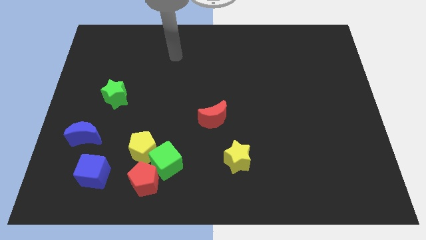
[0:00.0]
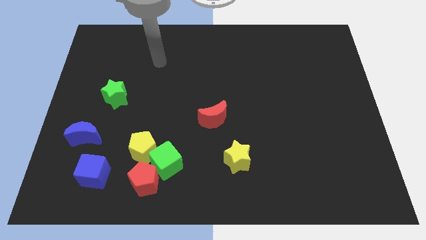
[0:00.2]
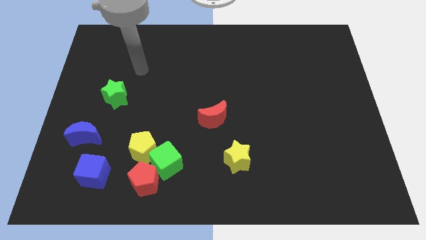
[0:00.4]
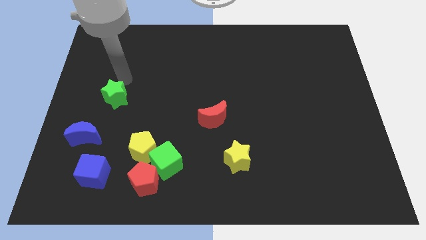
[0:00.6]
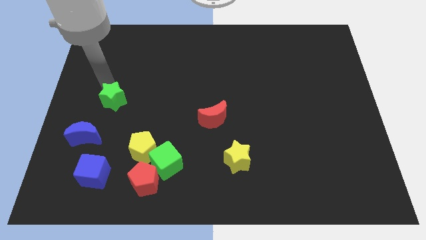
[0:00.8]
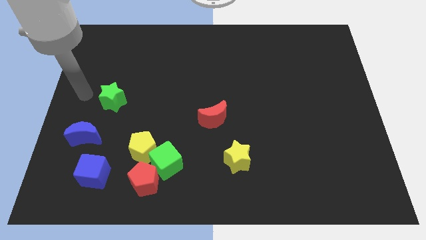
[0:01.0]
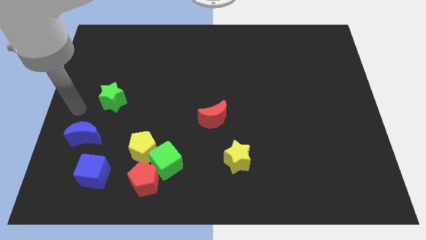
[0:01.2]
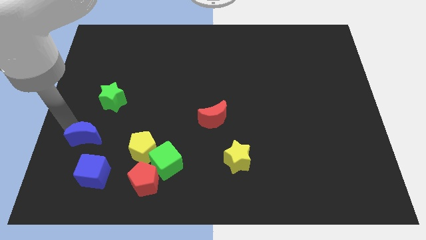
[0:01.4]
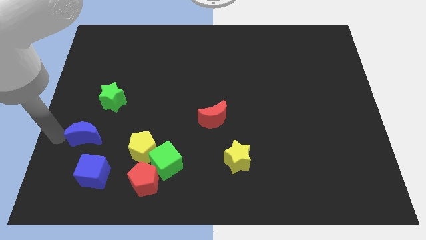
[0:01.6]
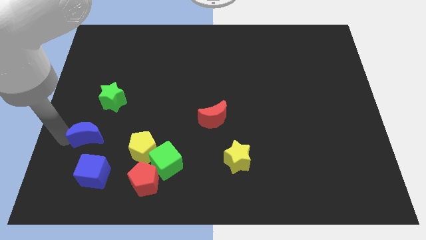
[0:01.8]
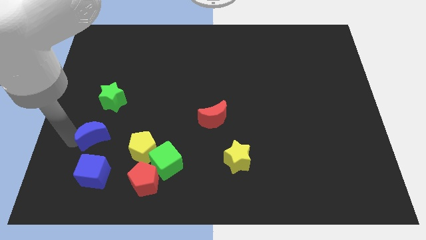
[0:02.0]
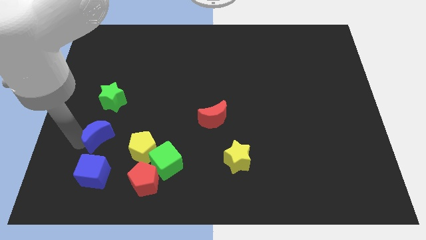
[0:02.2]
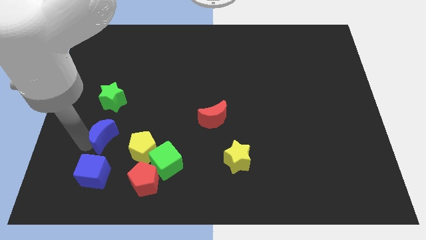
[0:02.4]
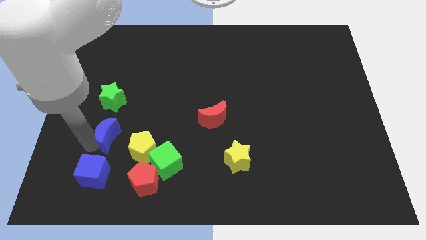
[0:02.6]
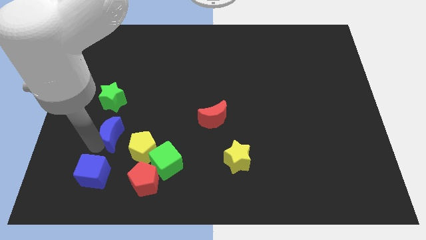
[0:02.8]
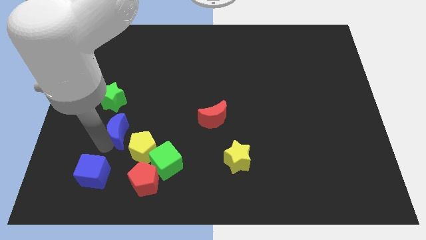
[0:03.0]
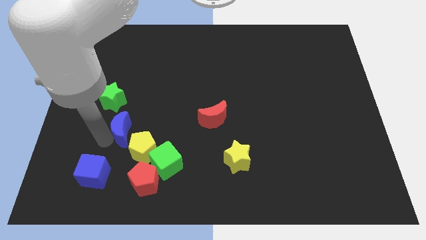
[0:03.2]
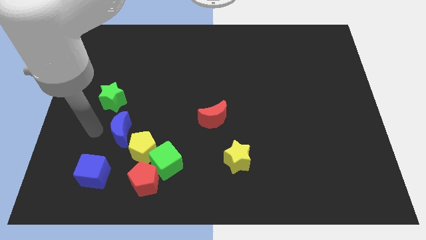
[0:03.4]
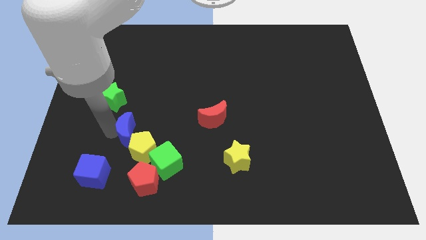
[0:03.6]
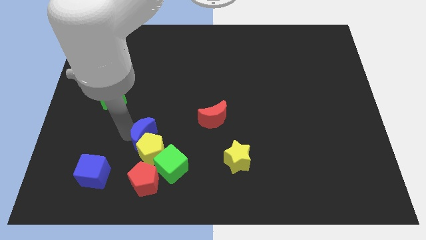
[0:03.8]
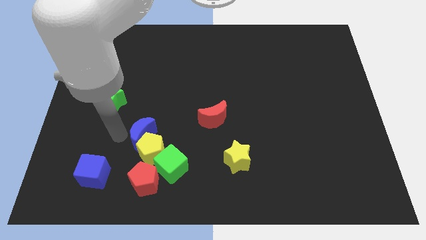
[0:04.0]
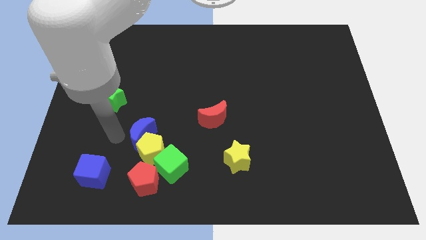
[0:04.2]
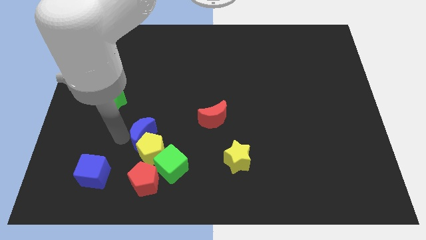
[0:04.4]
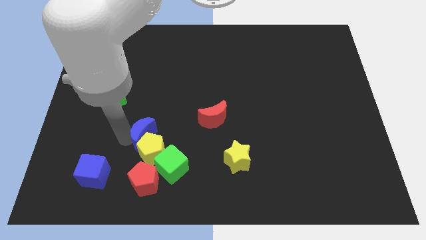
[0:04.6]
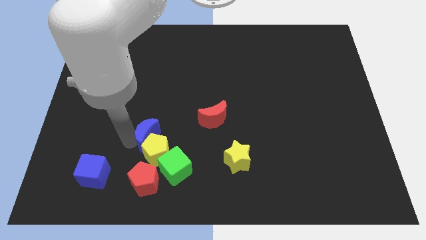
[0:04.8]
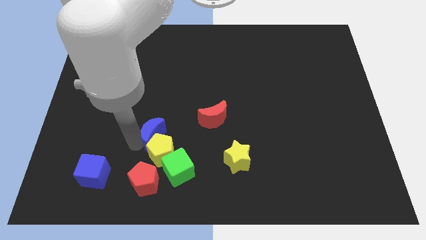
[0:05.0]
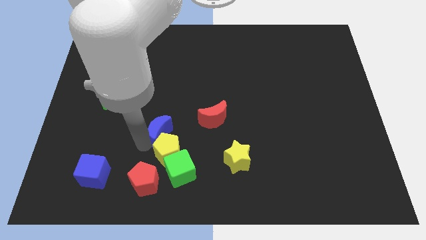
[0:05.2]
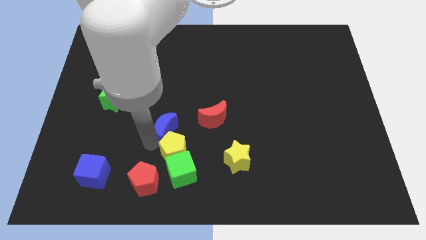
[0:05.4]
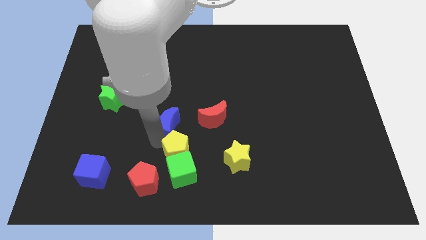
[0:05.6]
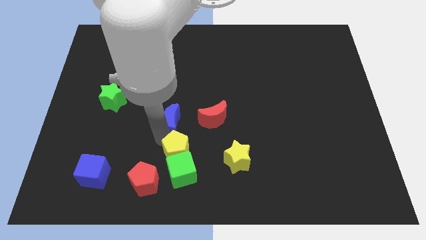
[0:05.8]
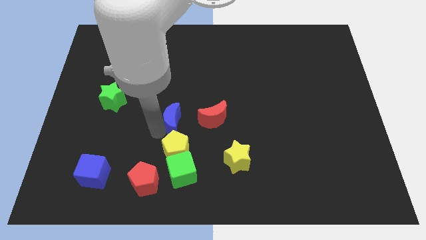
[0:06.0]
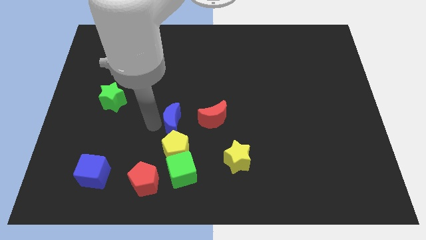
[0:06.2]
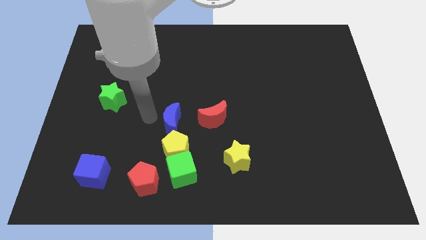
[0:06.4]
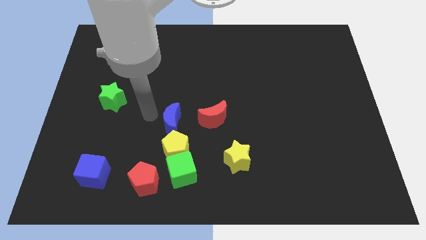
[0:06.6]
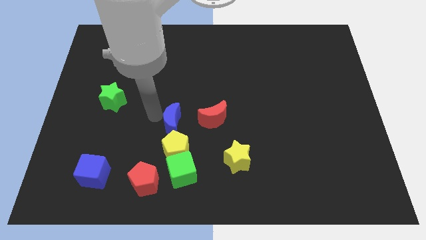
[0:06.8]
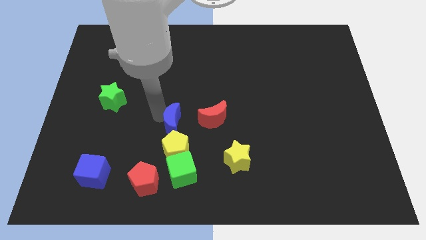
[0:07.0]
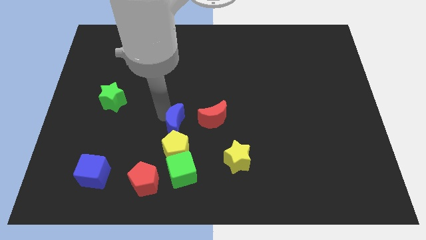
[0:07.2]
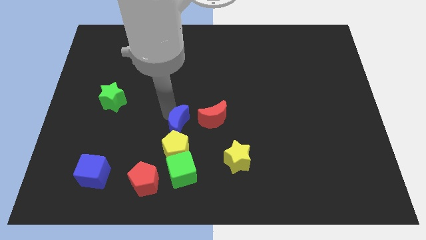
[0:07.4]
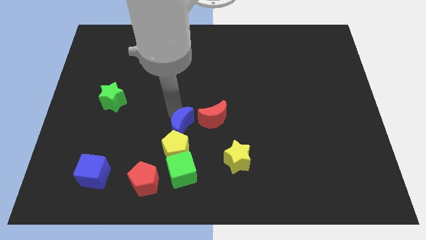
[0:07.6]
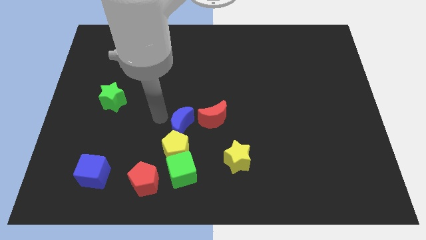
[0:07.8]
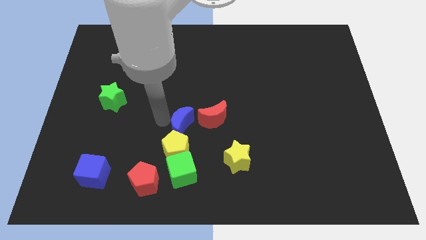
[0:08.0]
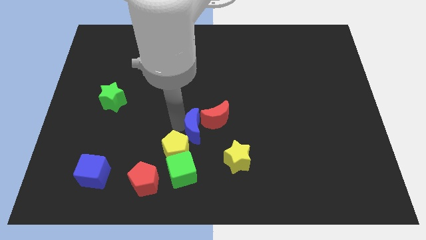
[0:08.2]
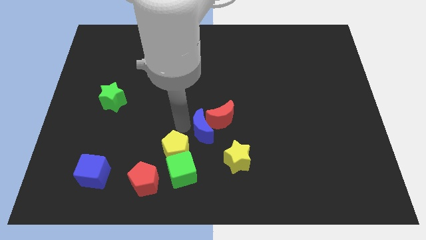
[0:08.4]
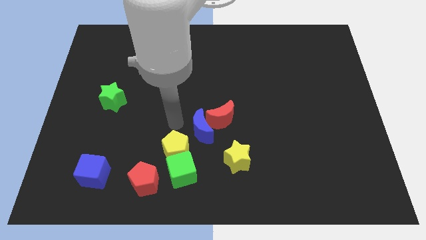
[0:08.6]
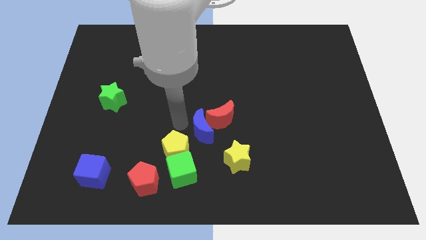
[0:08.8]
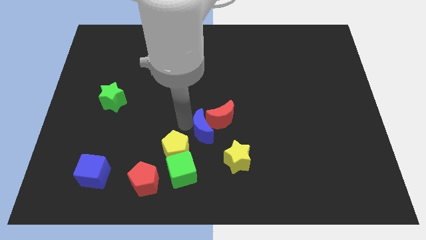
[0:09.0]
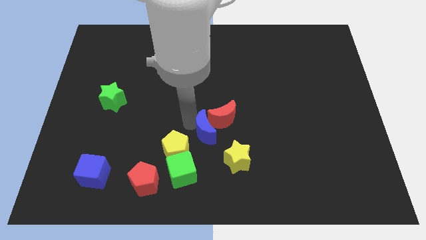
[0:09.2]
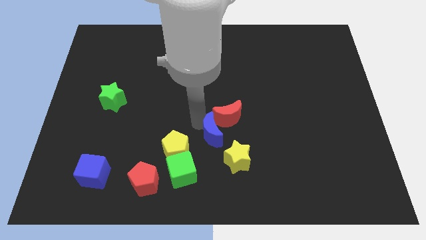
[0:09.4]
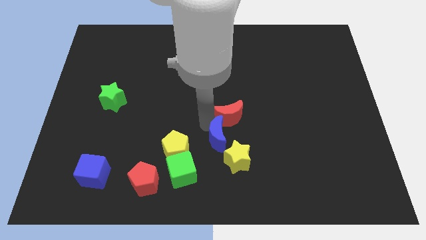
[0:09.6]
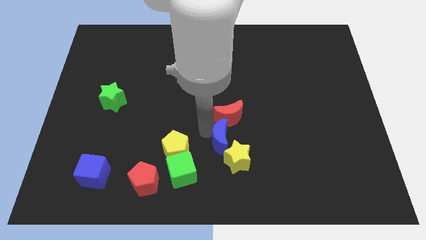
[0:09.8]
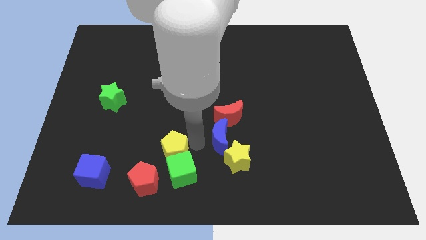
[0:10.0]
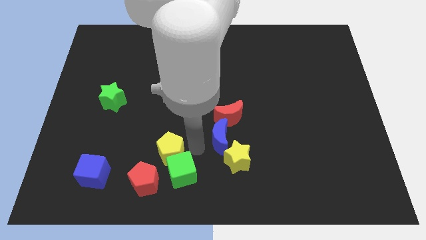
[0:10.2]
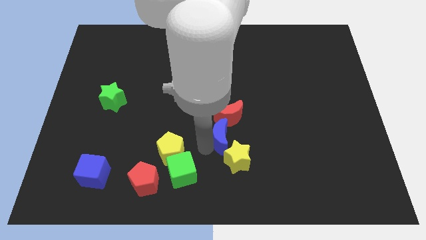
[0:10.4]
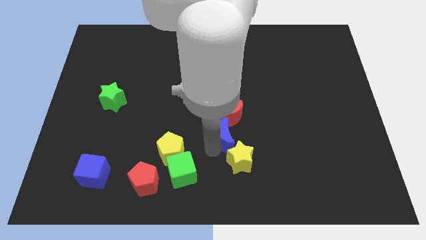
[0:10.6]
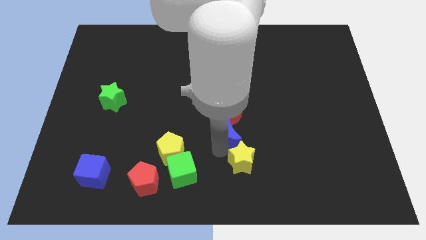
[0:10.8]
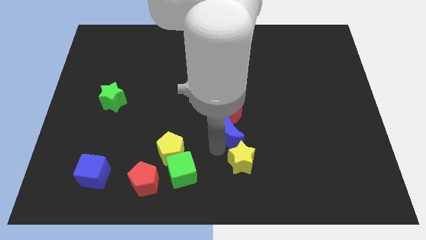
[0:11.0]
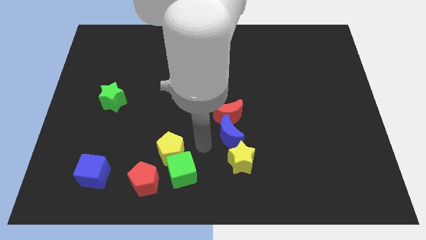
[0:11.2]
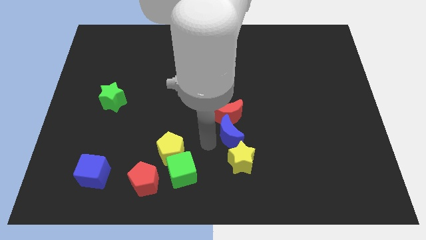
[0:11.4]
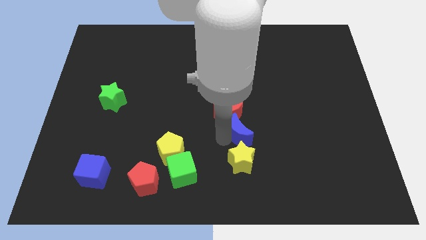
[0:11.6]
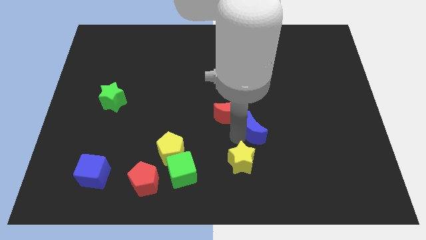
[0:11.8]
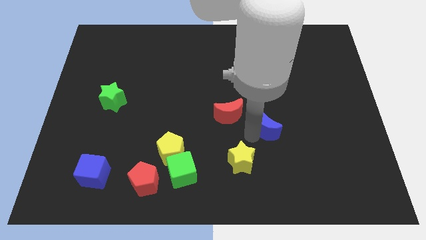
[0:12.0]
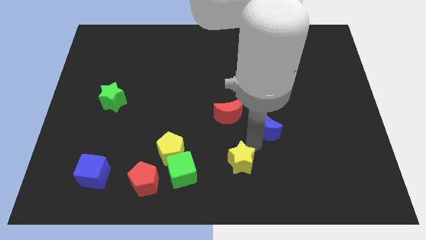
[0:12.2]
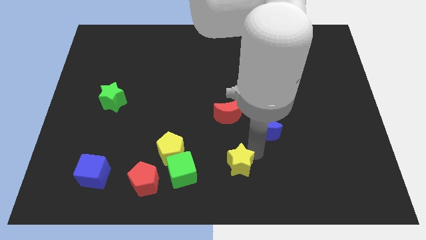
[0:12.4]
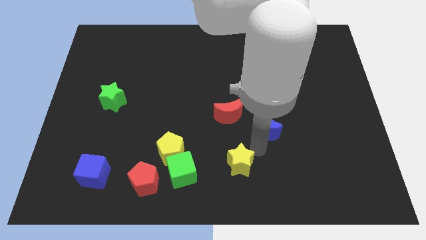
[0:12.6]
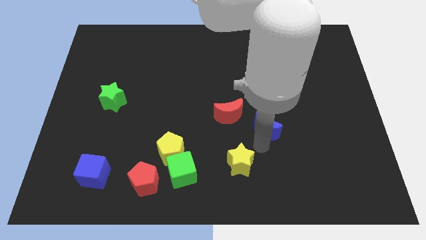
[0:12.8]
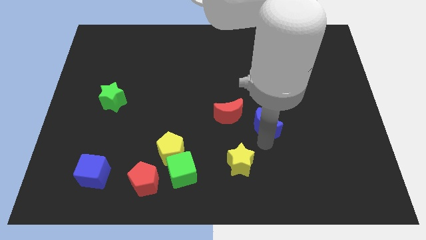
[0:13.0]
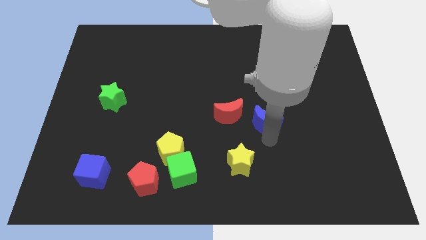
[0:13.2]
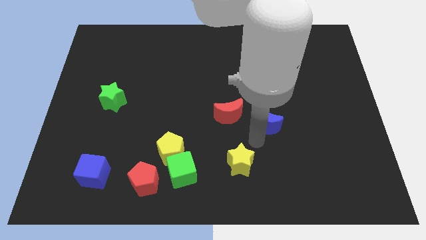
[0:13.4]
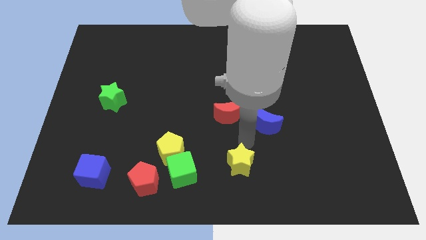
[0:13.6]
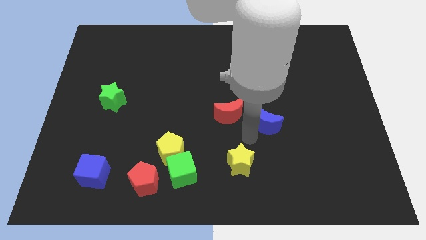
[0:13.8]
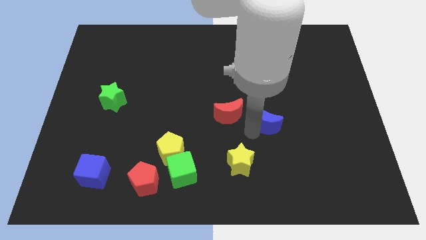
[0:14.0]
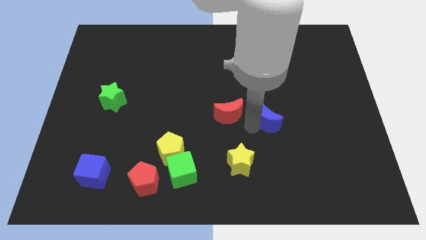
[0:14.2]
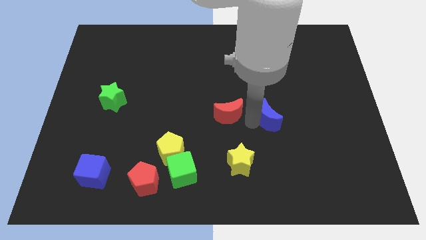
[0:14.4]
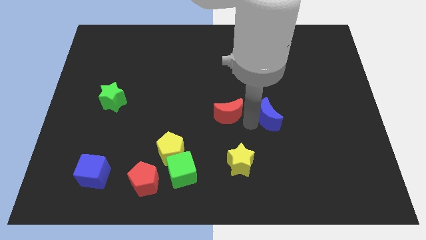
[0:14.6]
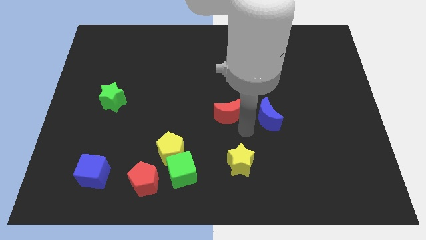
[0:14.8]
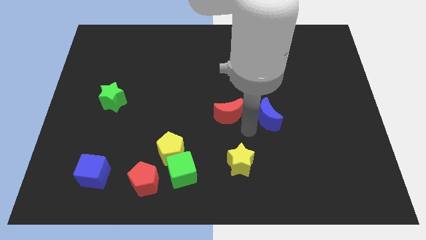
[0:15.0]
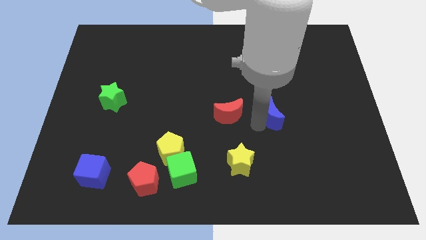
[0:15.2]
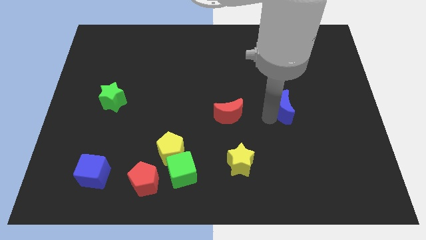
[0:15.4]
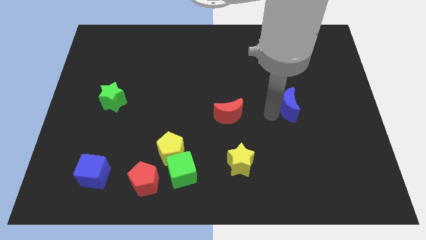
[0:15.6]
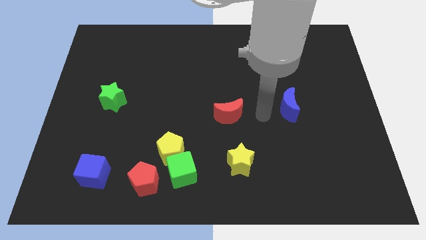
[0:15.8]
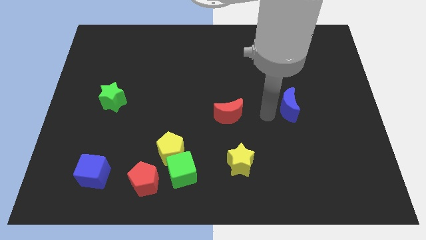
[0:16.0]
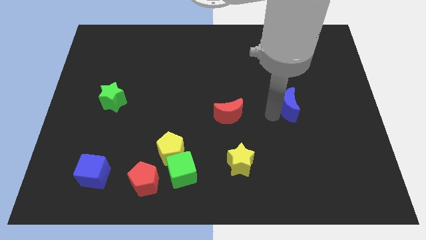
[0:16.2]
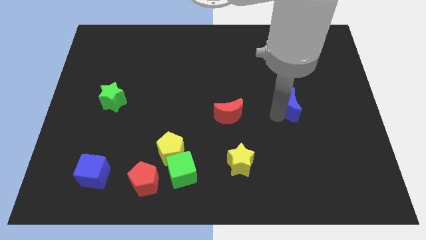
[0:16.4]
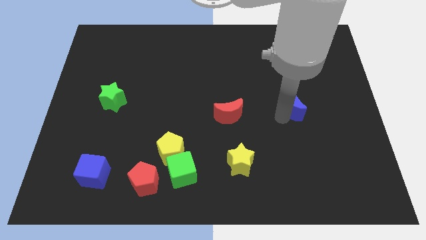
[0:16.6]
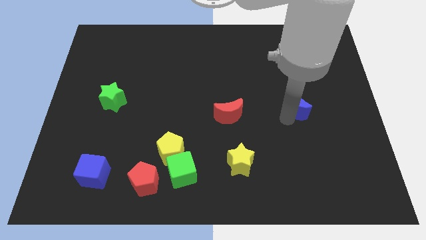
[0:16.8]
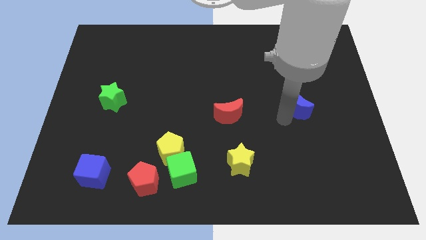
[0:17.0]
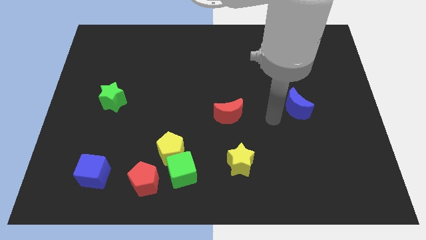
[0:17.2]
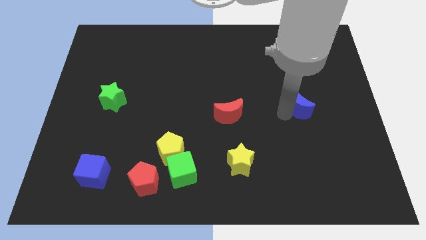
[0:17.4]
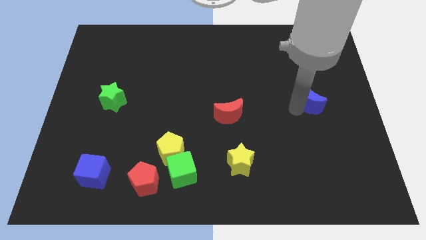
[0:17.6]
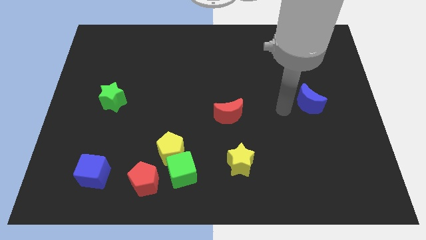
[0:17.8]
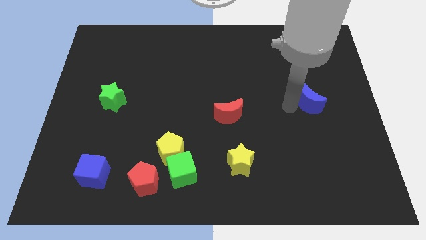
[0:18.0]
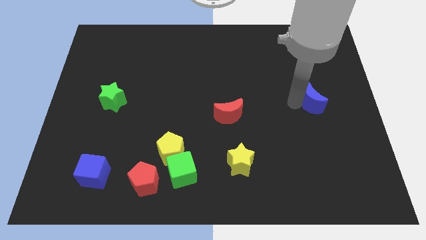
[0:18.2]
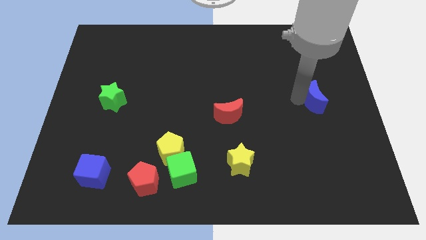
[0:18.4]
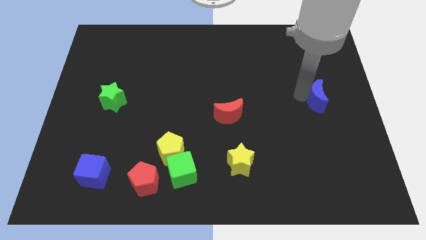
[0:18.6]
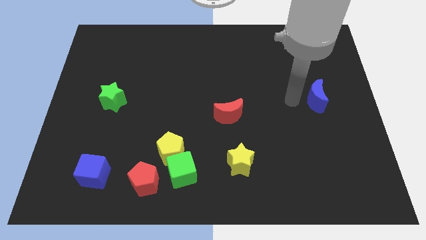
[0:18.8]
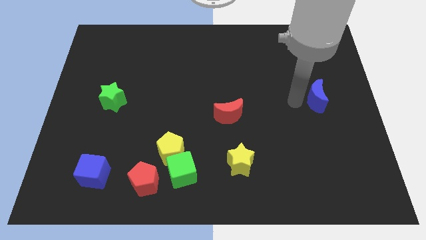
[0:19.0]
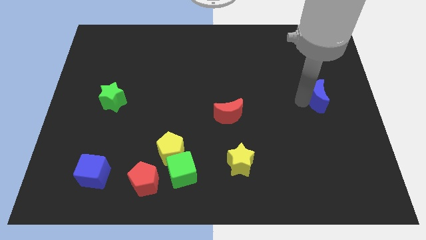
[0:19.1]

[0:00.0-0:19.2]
put the blue moon to the right side
